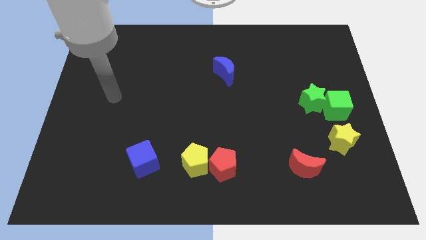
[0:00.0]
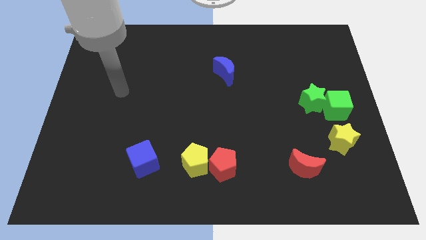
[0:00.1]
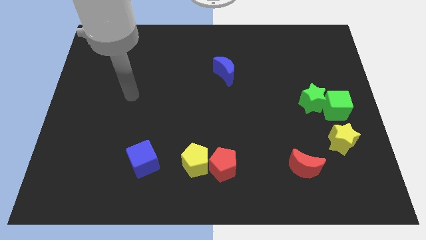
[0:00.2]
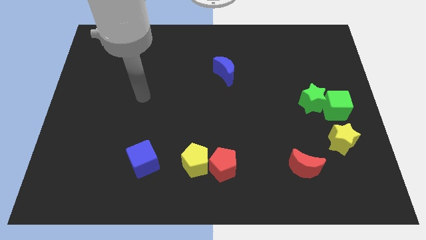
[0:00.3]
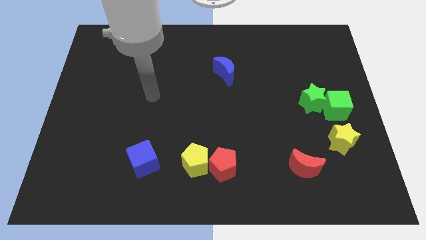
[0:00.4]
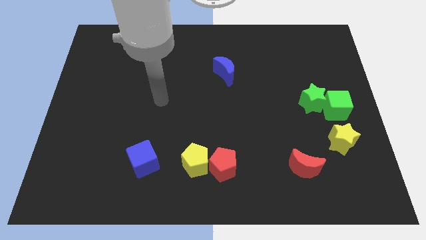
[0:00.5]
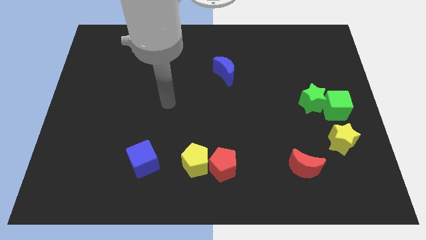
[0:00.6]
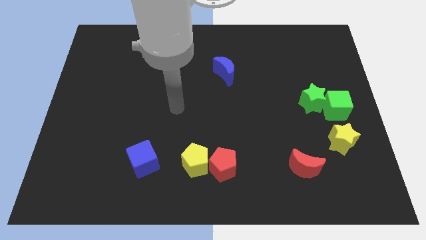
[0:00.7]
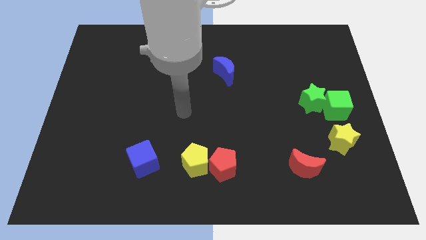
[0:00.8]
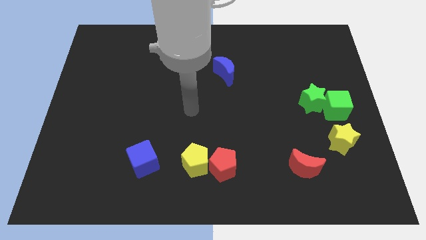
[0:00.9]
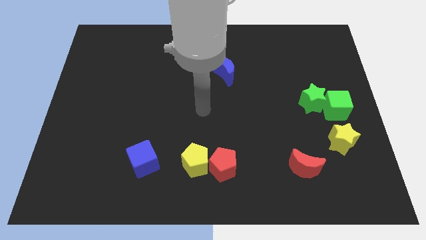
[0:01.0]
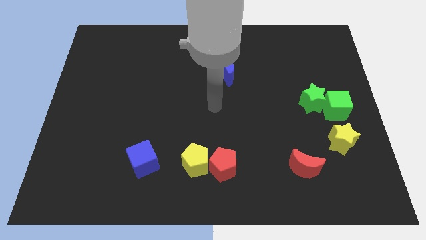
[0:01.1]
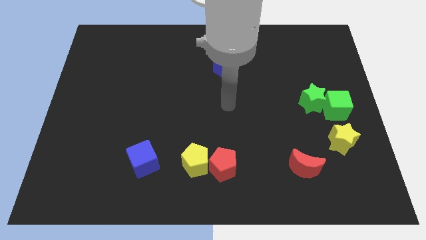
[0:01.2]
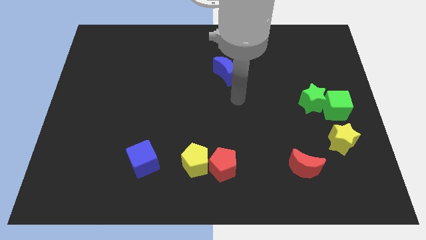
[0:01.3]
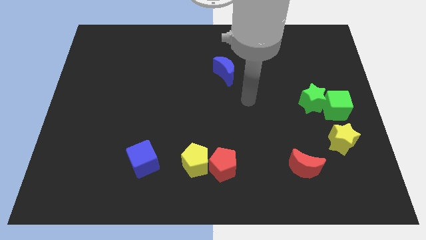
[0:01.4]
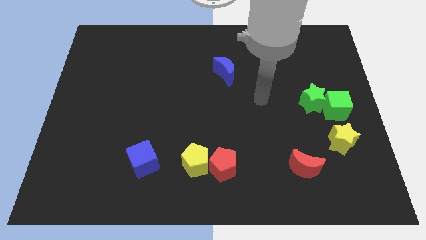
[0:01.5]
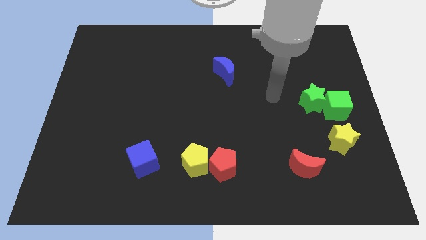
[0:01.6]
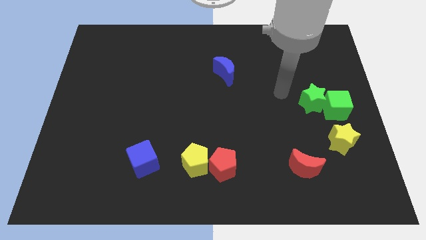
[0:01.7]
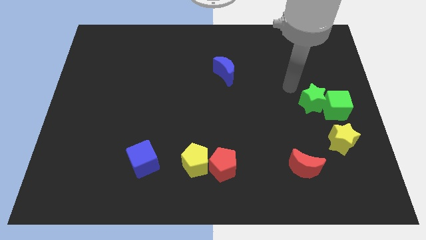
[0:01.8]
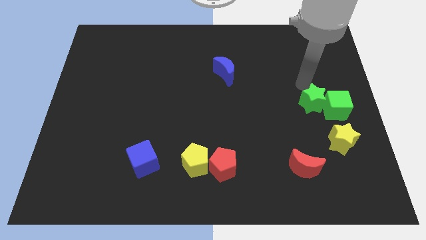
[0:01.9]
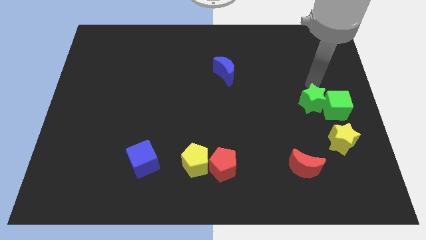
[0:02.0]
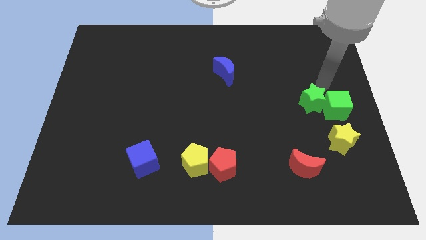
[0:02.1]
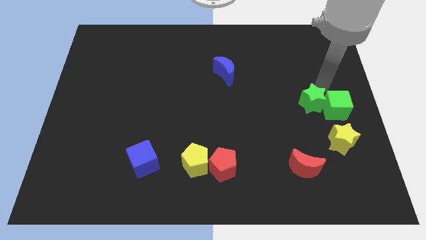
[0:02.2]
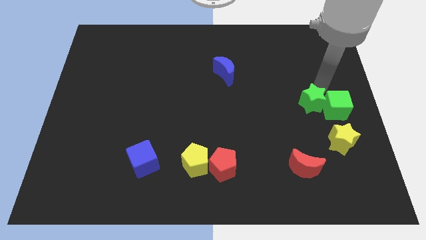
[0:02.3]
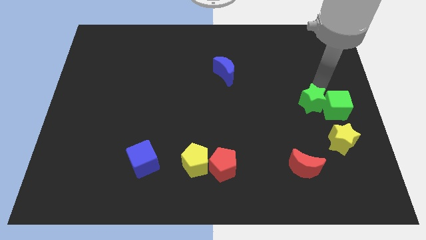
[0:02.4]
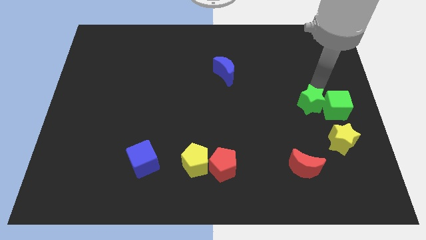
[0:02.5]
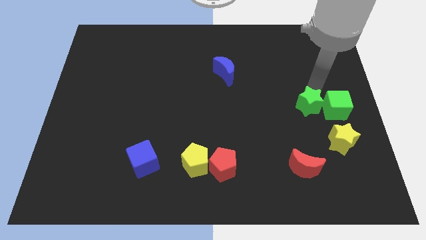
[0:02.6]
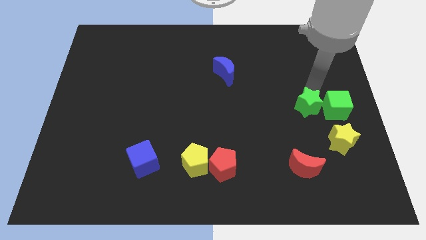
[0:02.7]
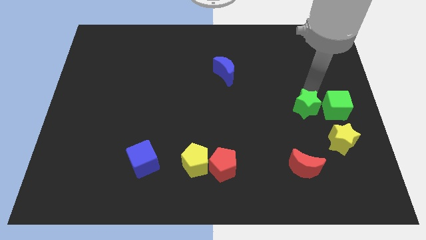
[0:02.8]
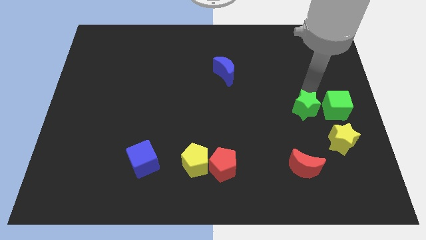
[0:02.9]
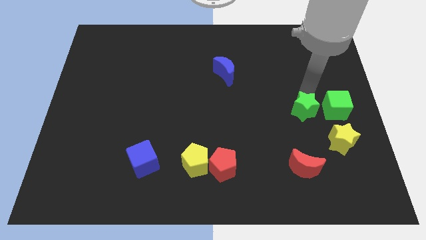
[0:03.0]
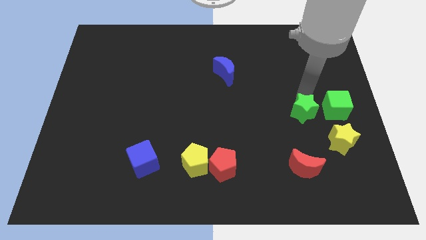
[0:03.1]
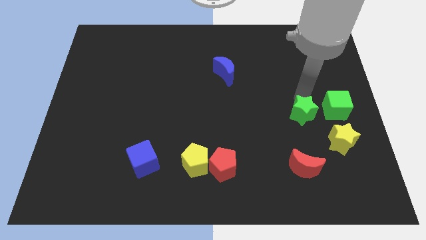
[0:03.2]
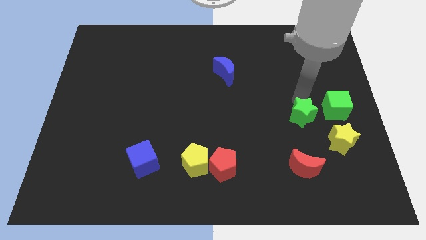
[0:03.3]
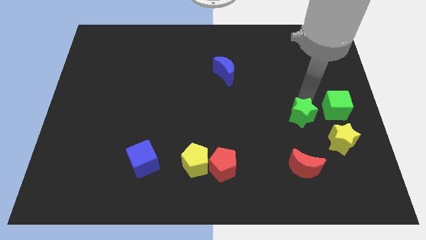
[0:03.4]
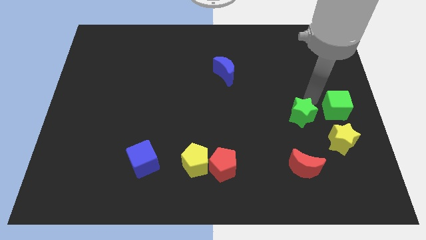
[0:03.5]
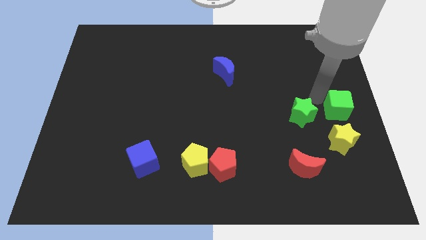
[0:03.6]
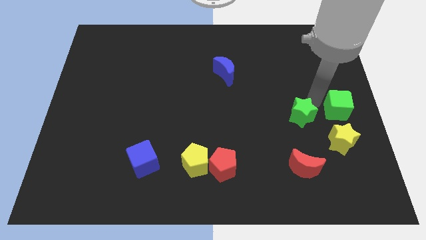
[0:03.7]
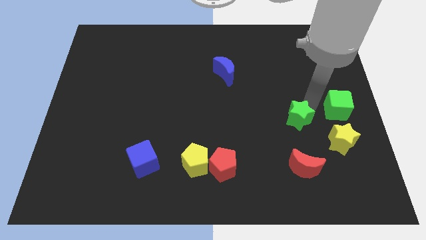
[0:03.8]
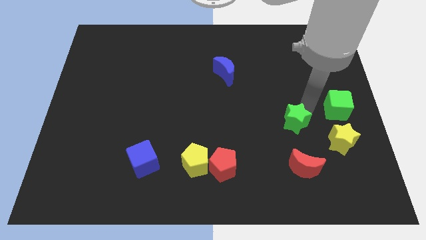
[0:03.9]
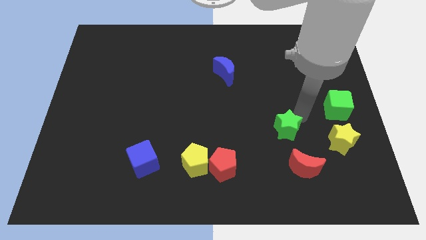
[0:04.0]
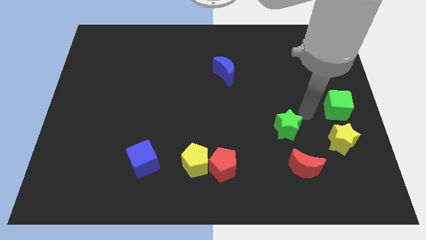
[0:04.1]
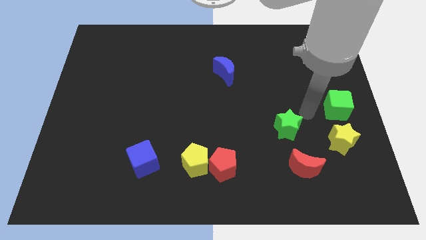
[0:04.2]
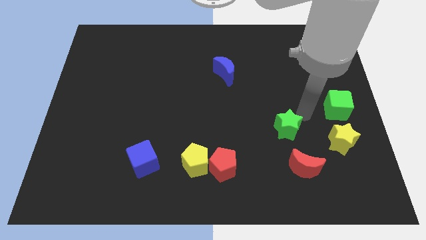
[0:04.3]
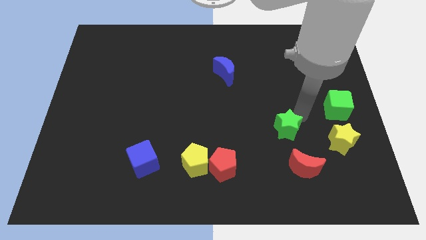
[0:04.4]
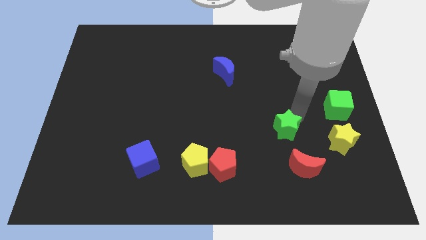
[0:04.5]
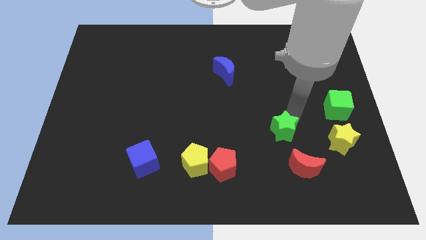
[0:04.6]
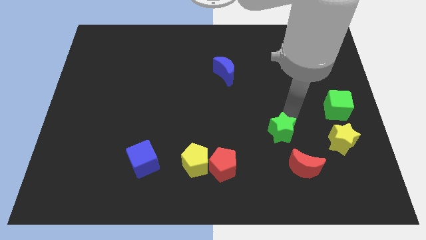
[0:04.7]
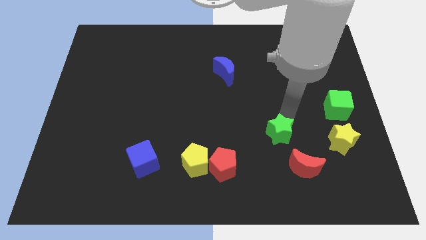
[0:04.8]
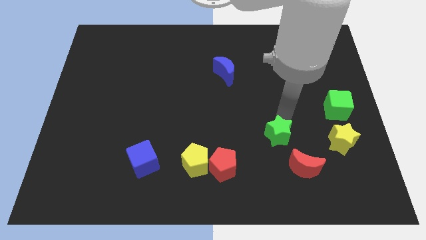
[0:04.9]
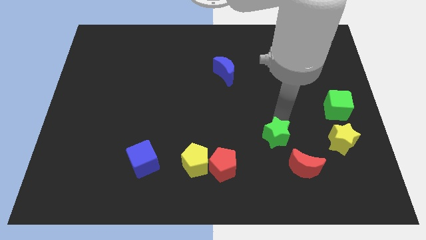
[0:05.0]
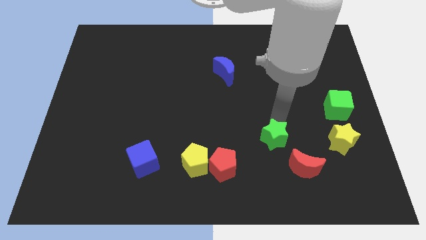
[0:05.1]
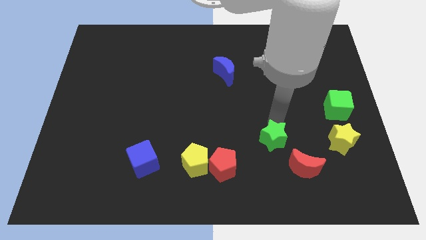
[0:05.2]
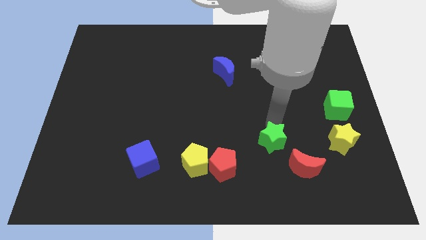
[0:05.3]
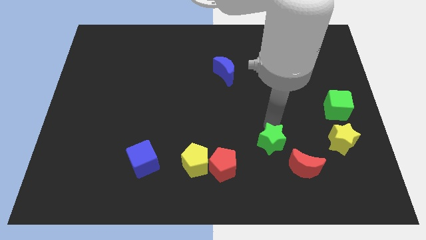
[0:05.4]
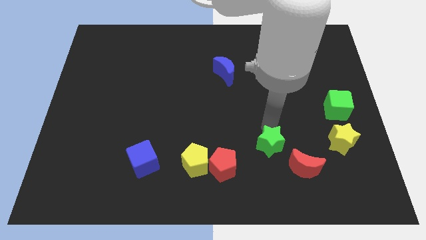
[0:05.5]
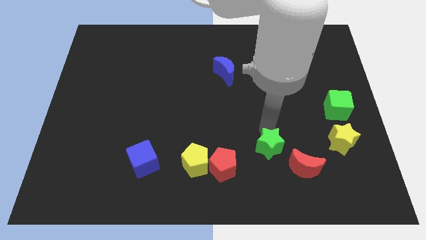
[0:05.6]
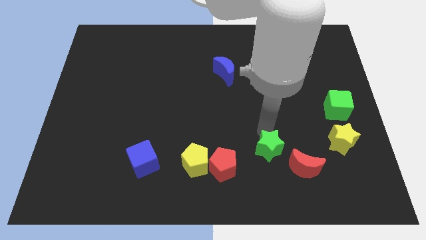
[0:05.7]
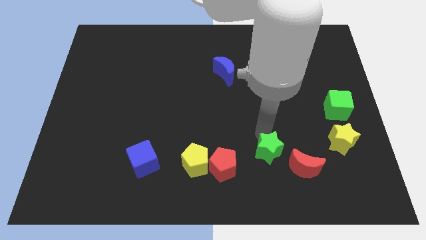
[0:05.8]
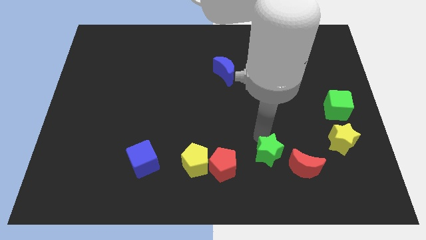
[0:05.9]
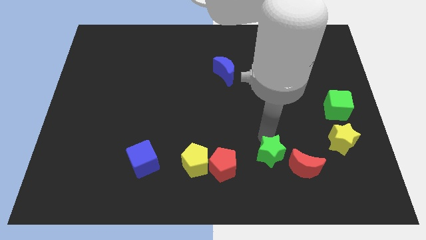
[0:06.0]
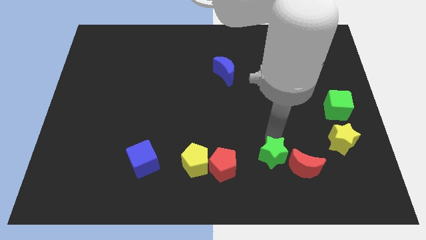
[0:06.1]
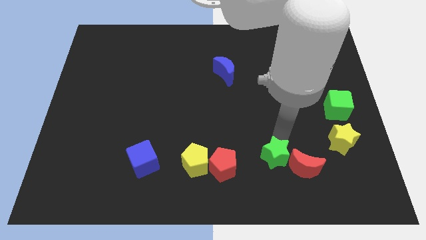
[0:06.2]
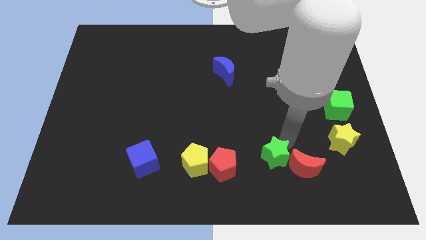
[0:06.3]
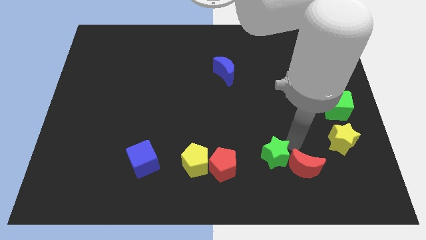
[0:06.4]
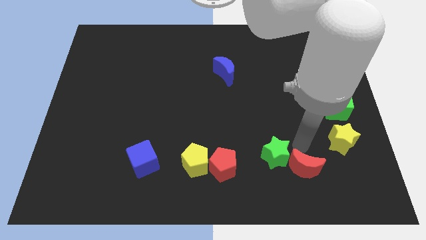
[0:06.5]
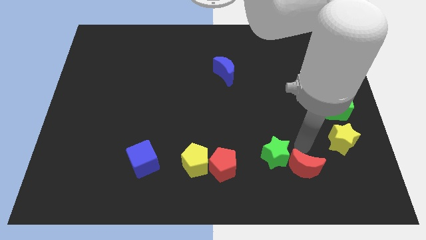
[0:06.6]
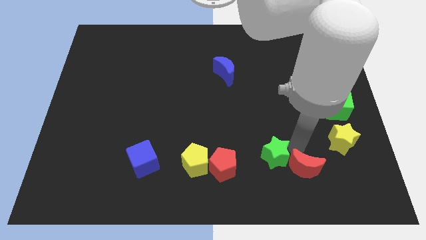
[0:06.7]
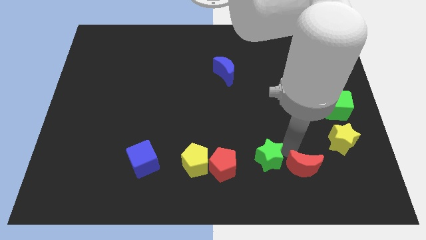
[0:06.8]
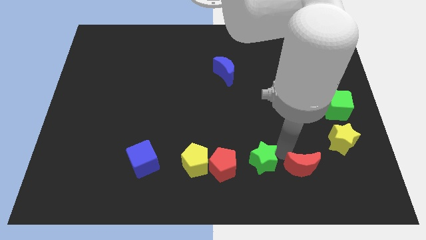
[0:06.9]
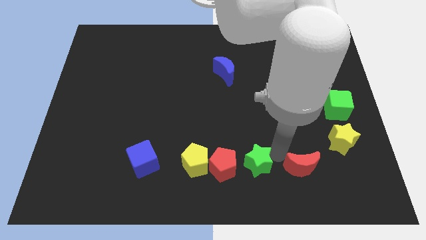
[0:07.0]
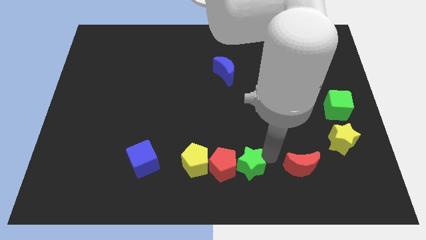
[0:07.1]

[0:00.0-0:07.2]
slide the green star to the bottom side

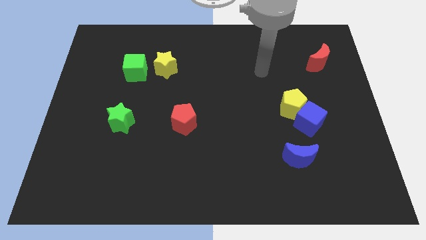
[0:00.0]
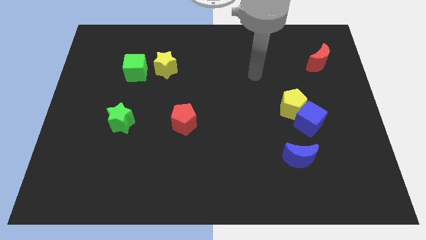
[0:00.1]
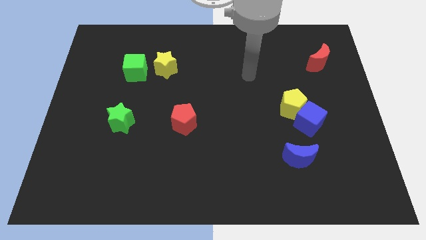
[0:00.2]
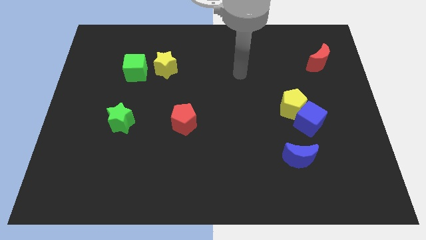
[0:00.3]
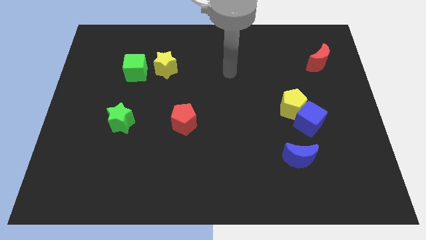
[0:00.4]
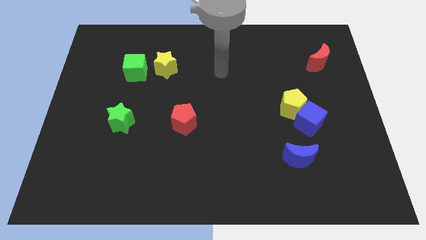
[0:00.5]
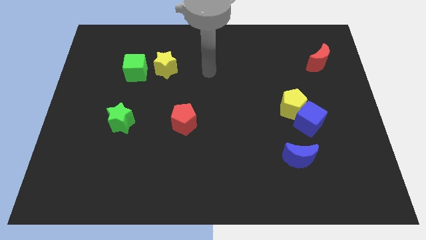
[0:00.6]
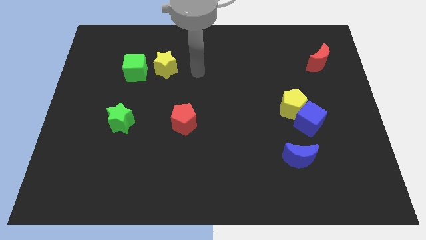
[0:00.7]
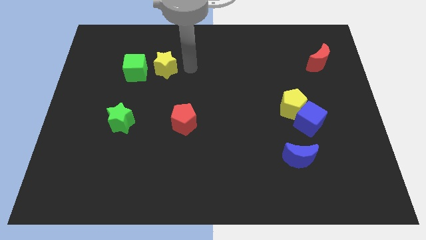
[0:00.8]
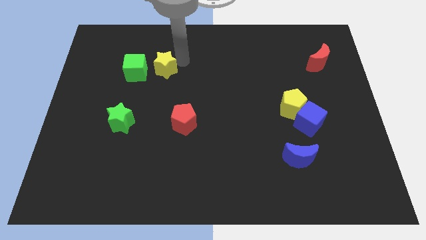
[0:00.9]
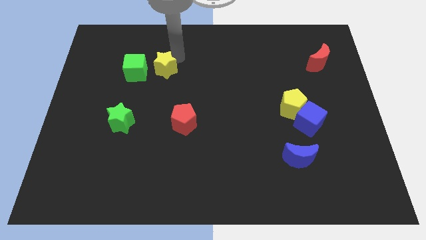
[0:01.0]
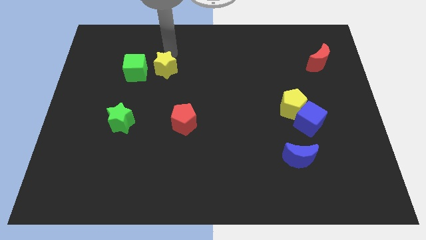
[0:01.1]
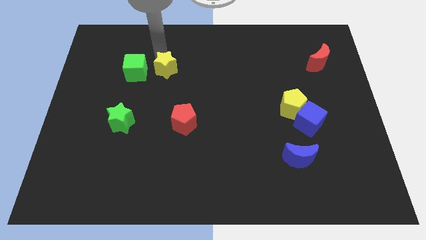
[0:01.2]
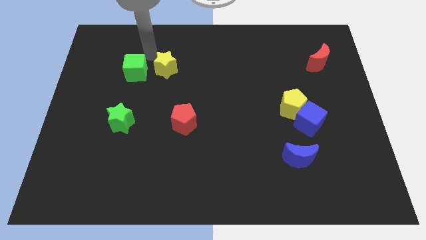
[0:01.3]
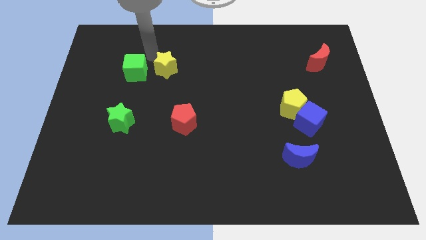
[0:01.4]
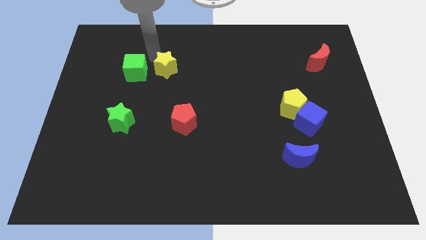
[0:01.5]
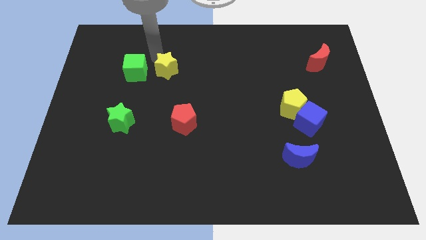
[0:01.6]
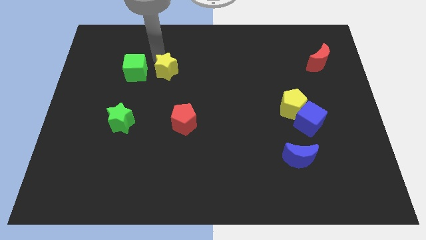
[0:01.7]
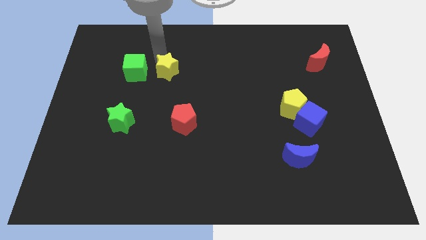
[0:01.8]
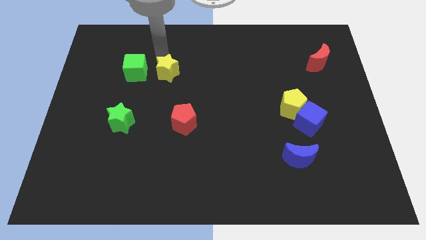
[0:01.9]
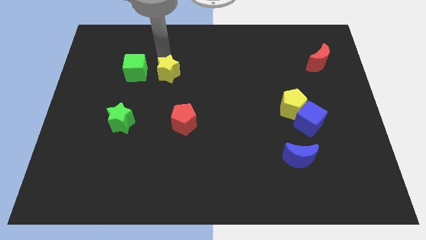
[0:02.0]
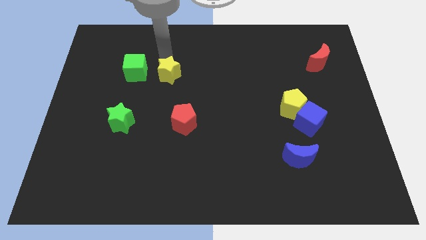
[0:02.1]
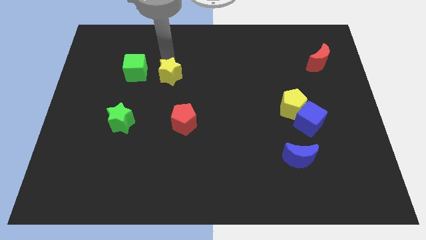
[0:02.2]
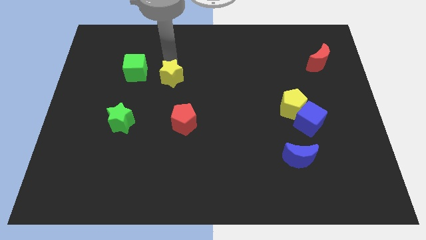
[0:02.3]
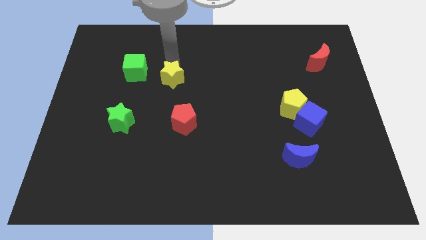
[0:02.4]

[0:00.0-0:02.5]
slide the yellow star to the center
